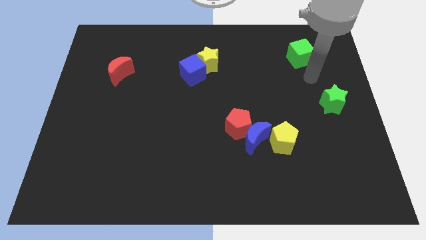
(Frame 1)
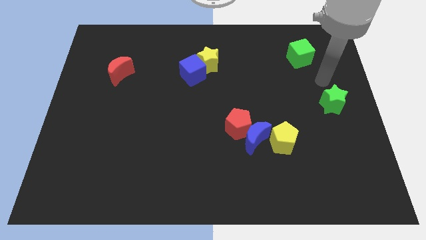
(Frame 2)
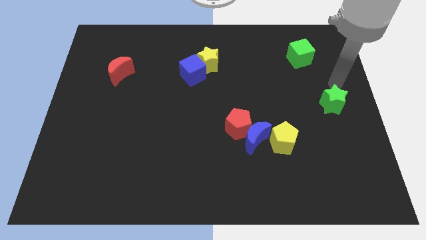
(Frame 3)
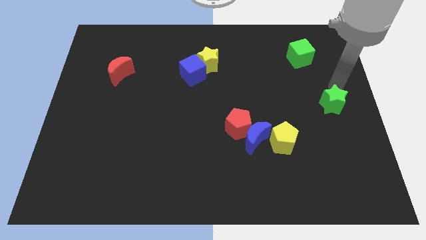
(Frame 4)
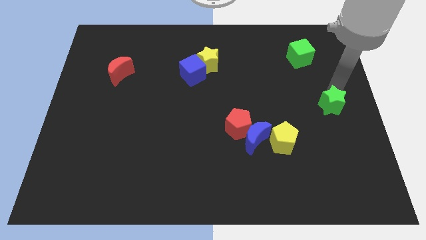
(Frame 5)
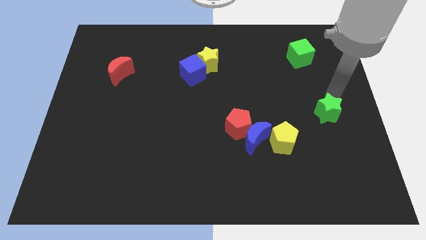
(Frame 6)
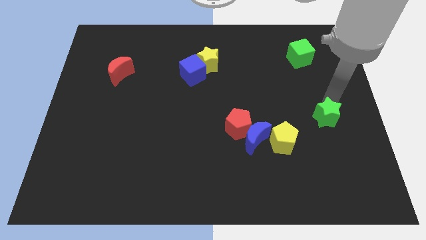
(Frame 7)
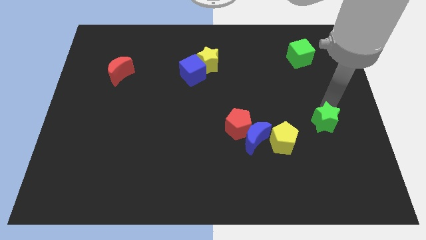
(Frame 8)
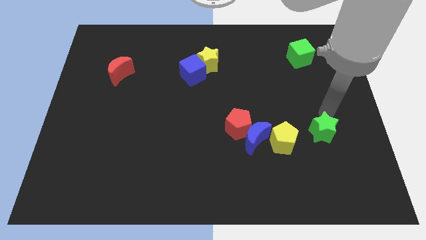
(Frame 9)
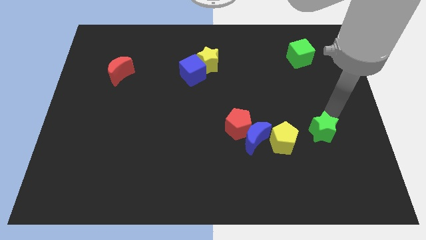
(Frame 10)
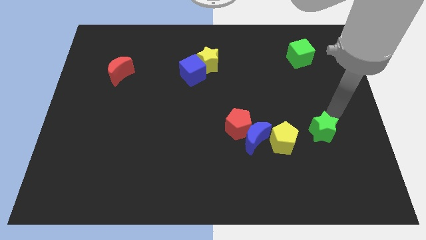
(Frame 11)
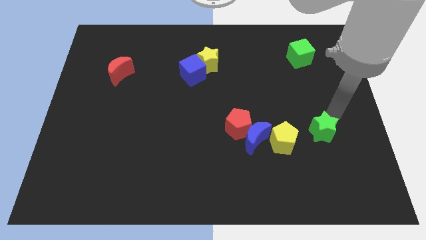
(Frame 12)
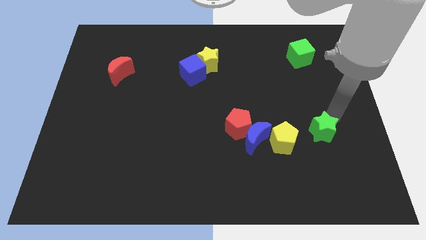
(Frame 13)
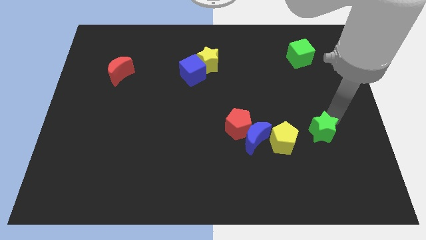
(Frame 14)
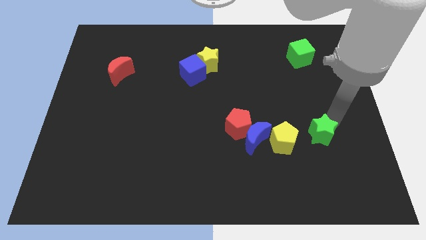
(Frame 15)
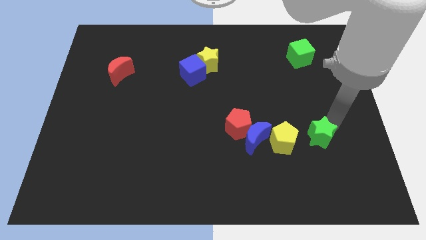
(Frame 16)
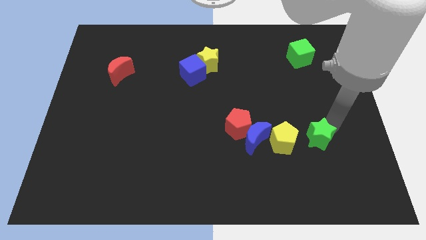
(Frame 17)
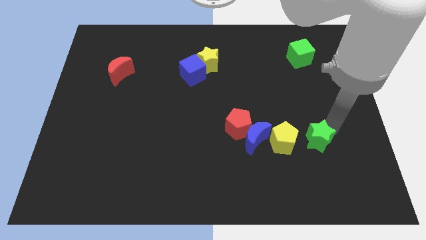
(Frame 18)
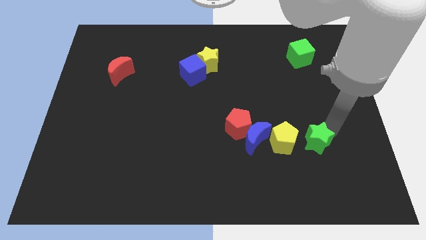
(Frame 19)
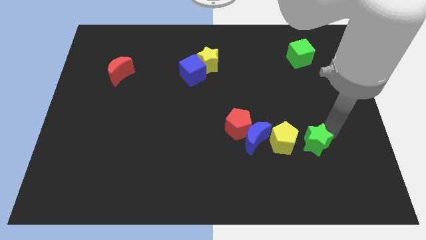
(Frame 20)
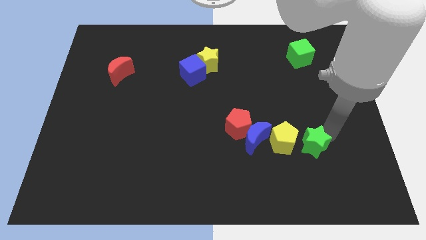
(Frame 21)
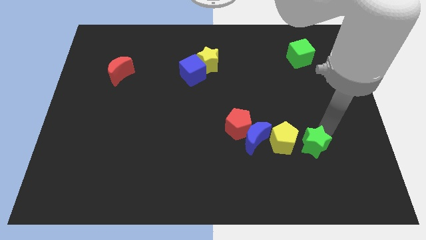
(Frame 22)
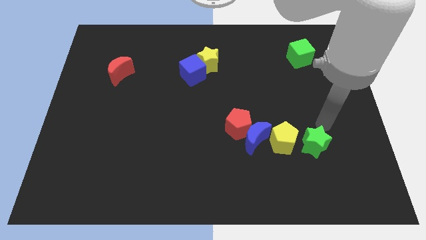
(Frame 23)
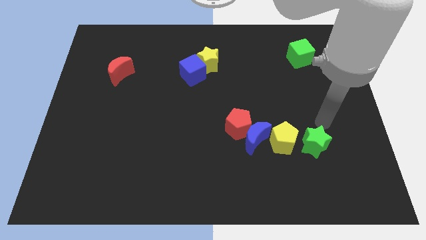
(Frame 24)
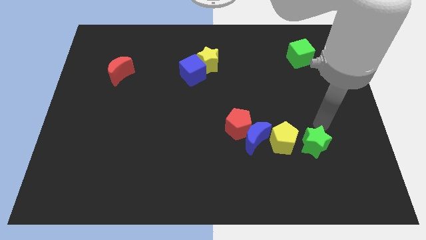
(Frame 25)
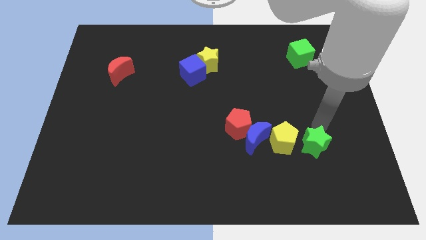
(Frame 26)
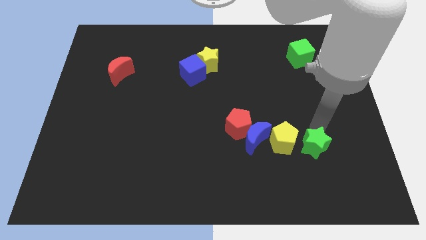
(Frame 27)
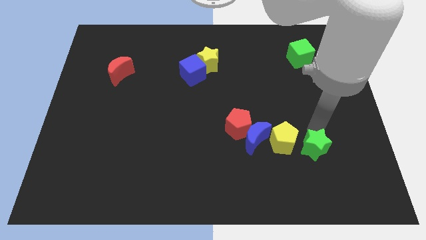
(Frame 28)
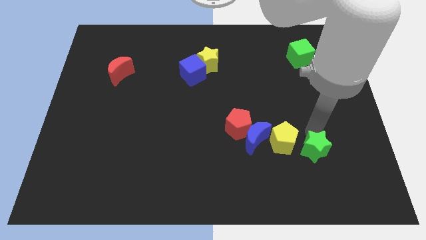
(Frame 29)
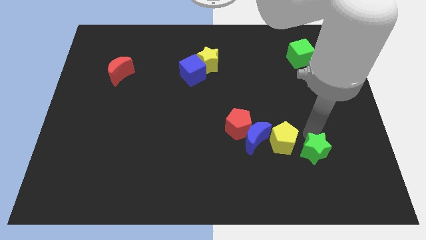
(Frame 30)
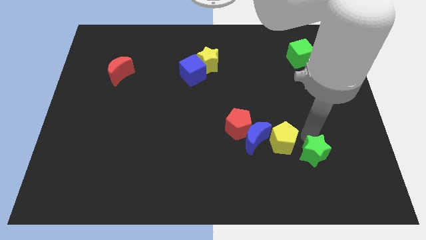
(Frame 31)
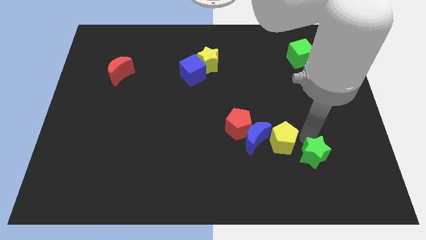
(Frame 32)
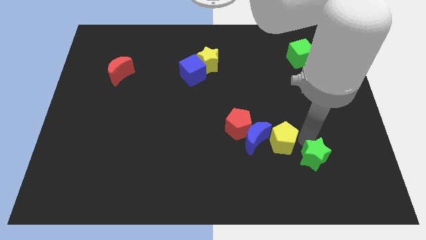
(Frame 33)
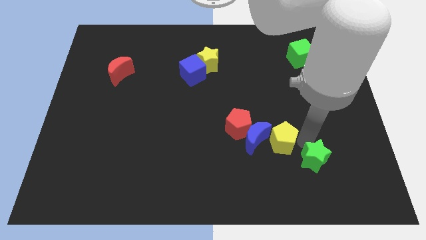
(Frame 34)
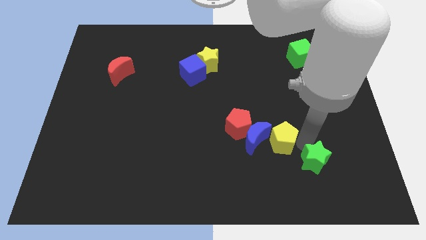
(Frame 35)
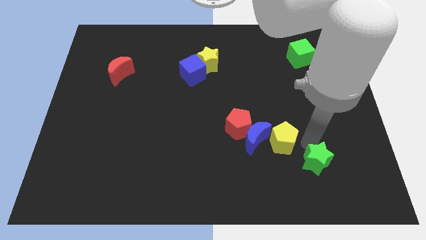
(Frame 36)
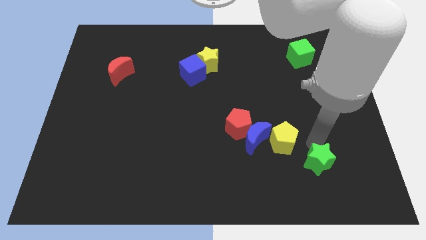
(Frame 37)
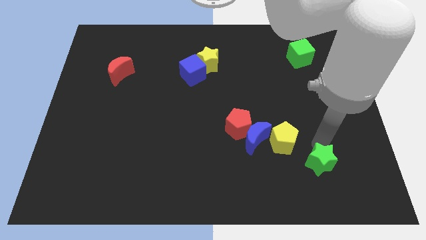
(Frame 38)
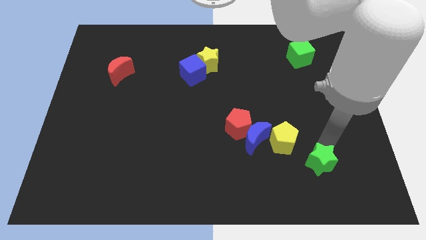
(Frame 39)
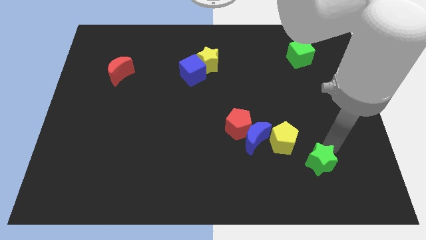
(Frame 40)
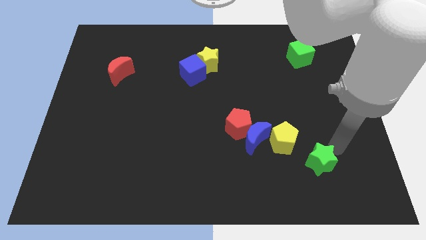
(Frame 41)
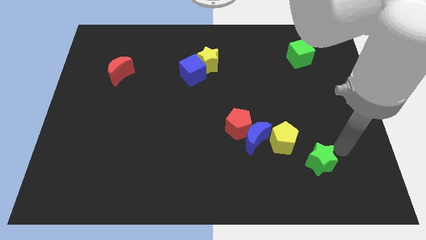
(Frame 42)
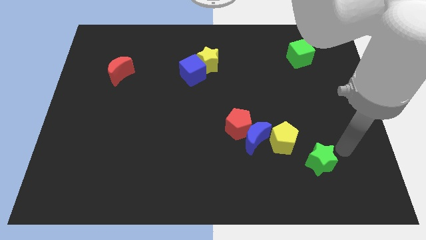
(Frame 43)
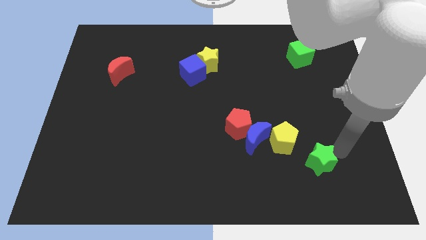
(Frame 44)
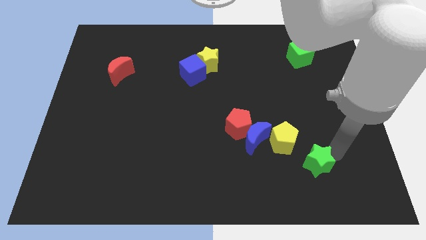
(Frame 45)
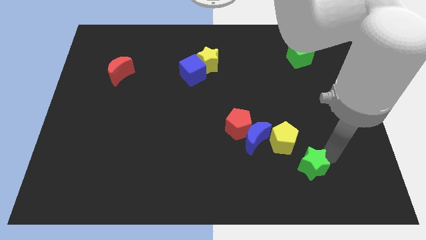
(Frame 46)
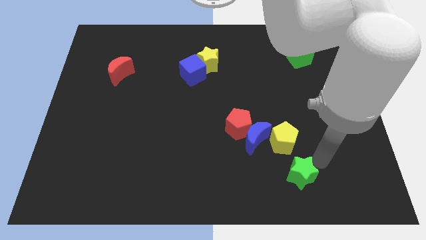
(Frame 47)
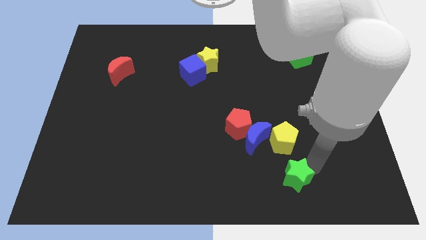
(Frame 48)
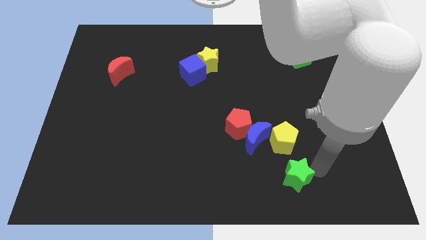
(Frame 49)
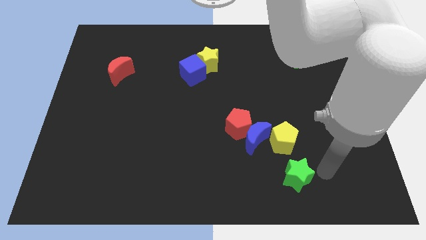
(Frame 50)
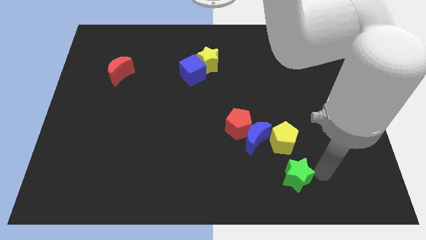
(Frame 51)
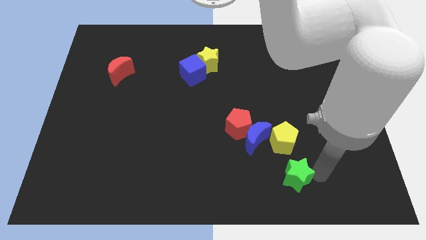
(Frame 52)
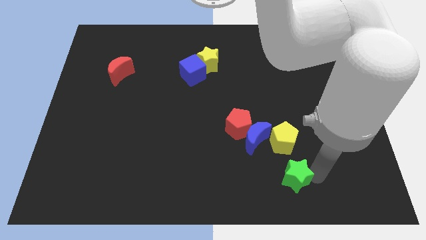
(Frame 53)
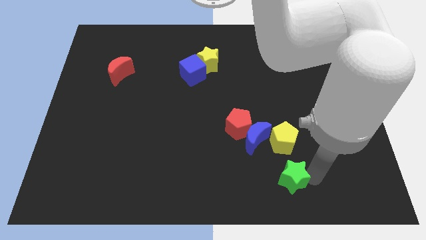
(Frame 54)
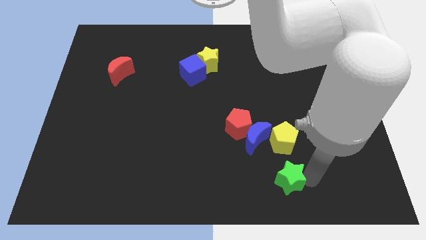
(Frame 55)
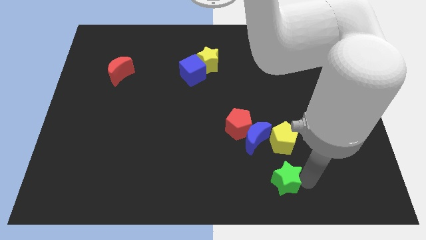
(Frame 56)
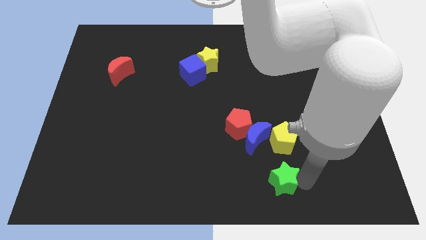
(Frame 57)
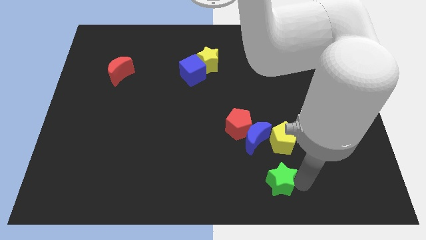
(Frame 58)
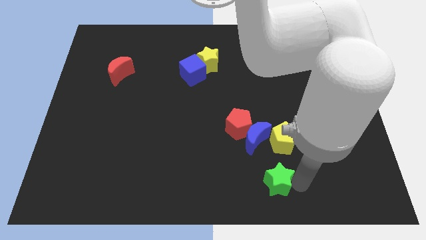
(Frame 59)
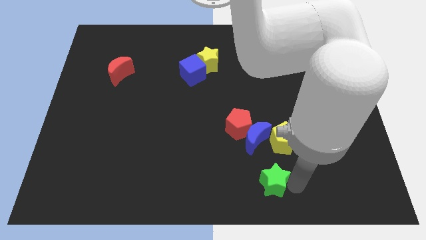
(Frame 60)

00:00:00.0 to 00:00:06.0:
push the green star to the bottom
